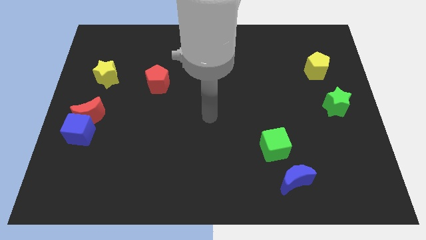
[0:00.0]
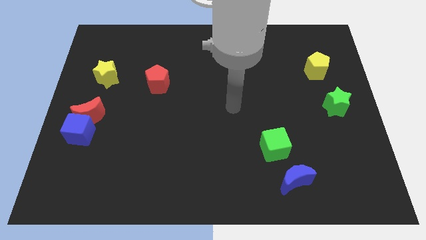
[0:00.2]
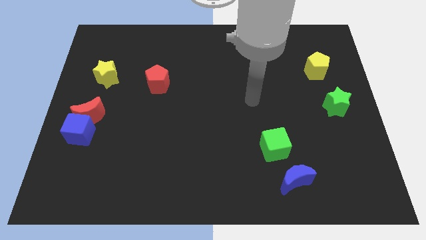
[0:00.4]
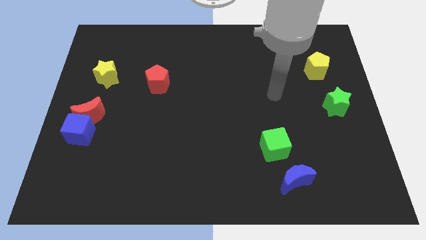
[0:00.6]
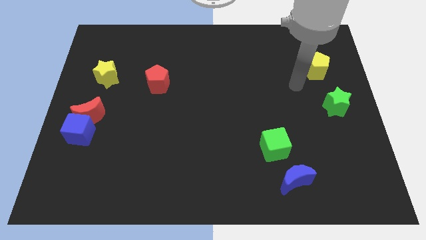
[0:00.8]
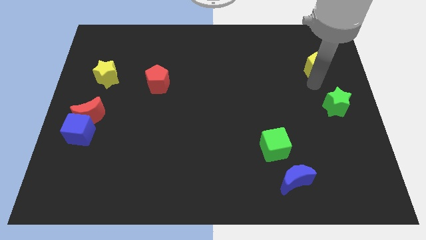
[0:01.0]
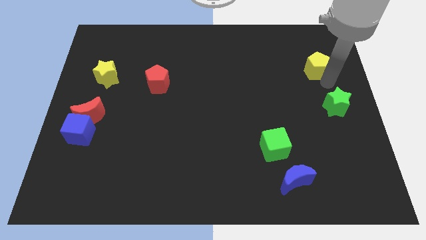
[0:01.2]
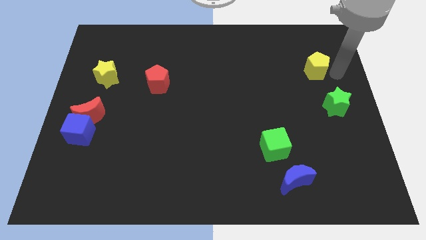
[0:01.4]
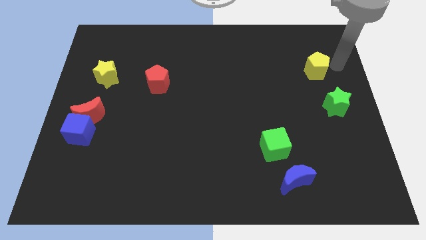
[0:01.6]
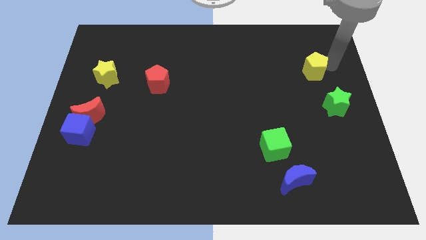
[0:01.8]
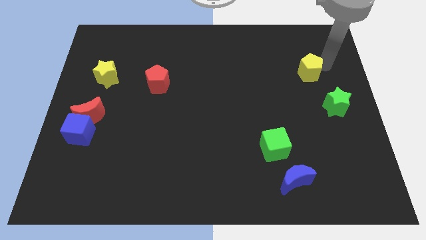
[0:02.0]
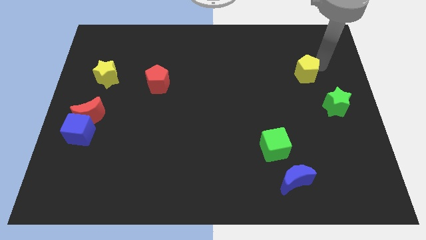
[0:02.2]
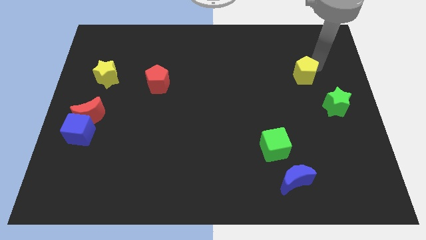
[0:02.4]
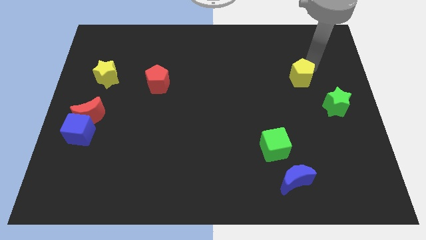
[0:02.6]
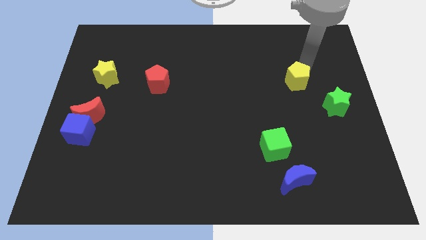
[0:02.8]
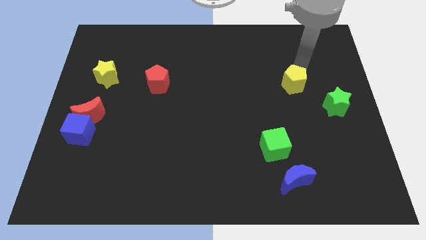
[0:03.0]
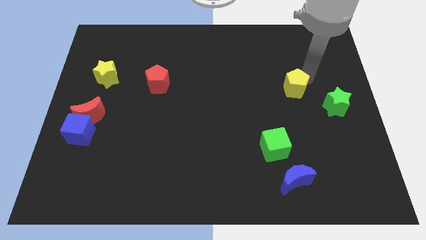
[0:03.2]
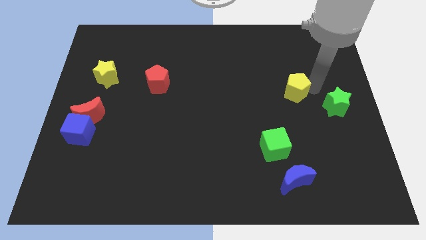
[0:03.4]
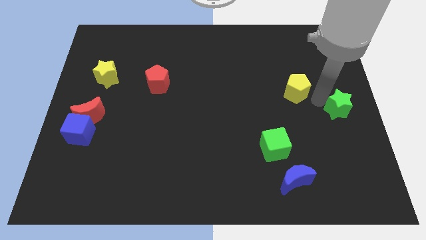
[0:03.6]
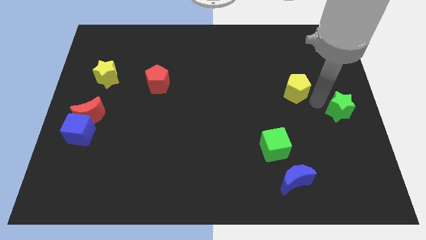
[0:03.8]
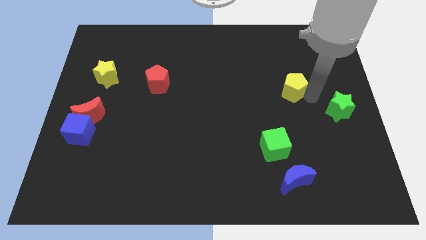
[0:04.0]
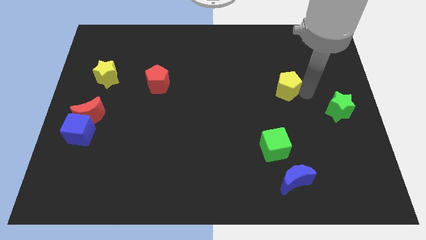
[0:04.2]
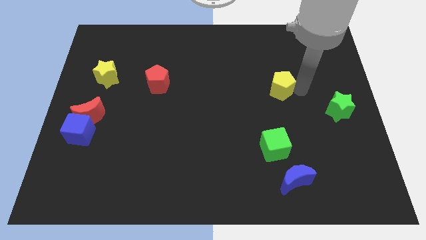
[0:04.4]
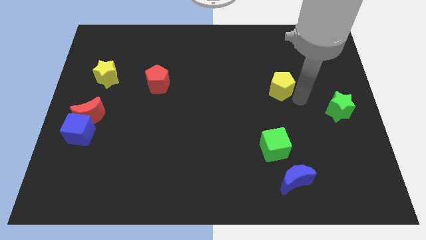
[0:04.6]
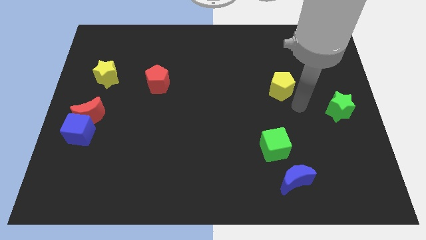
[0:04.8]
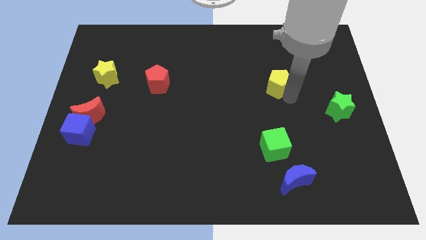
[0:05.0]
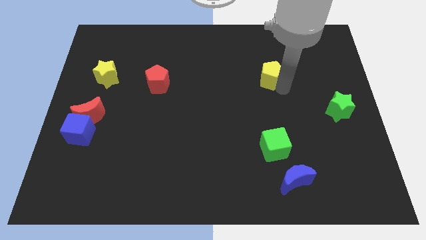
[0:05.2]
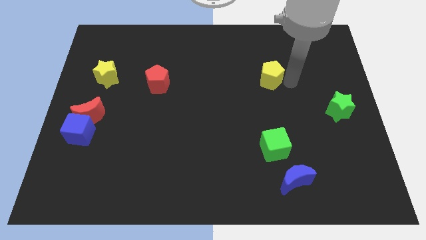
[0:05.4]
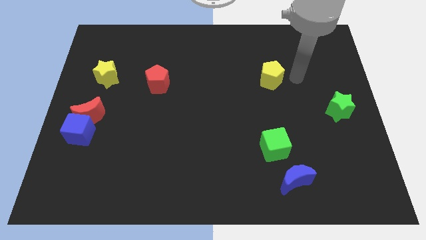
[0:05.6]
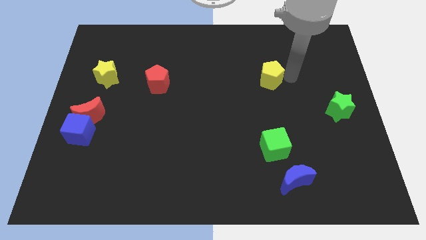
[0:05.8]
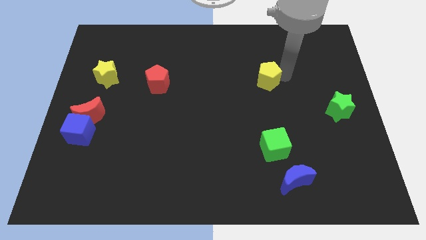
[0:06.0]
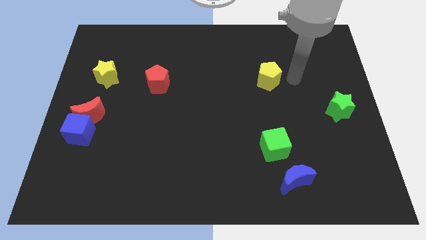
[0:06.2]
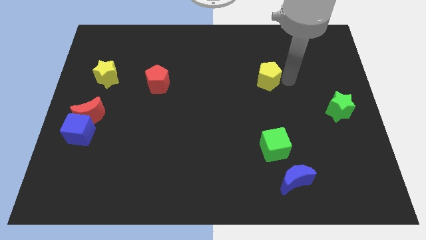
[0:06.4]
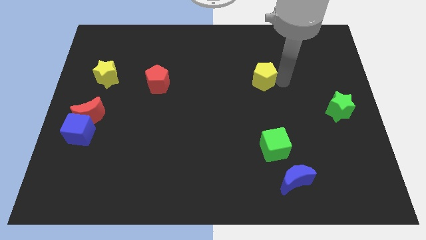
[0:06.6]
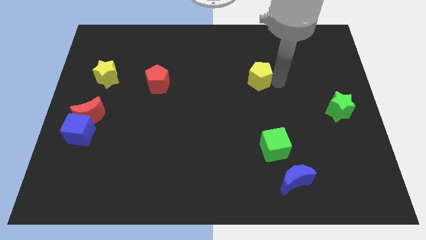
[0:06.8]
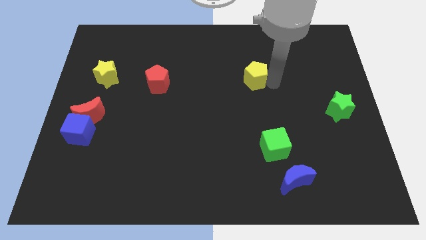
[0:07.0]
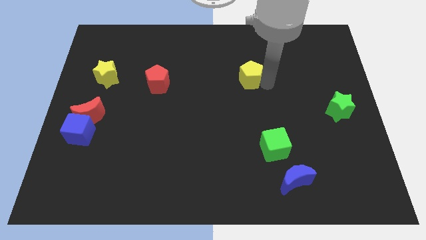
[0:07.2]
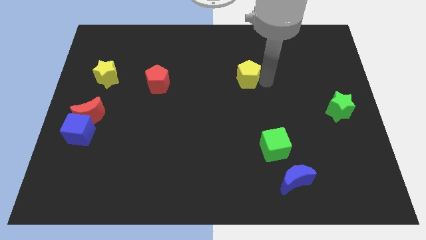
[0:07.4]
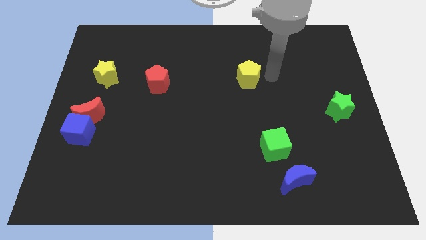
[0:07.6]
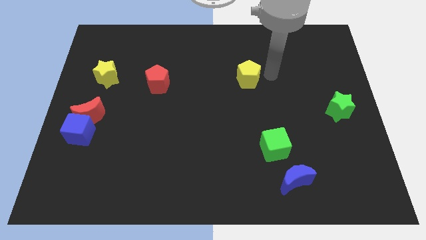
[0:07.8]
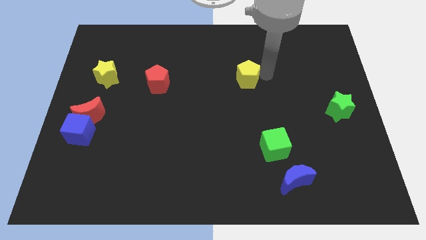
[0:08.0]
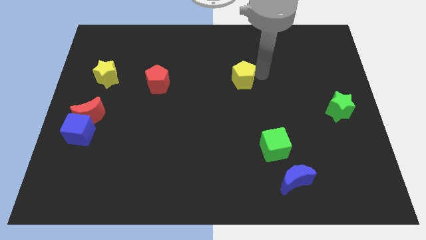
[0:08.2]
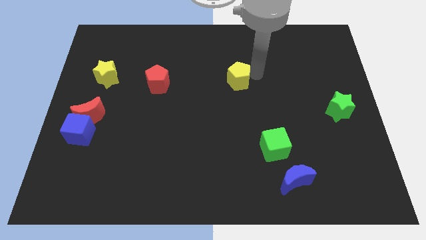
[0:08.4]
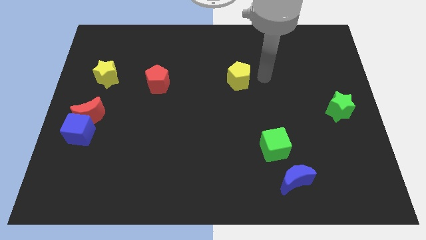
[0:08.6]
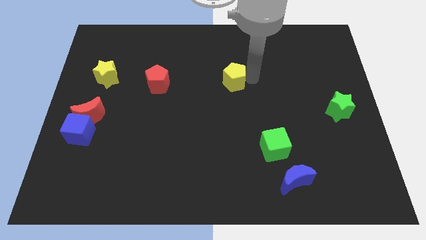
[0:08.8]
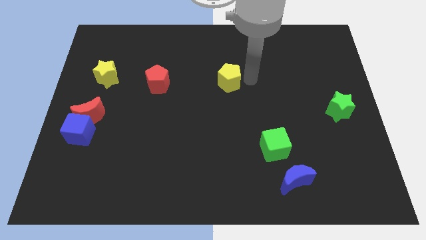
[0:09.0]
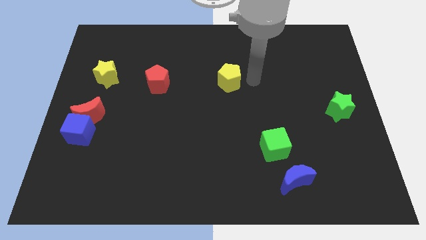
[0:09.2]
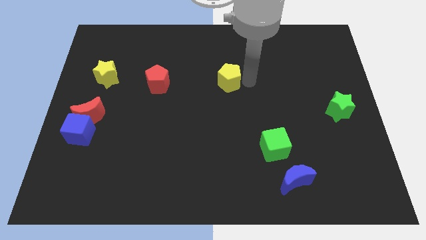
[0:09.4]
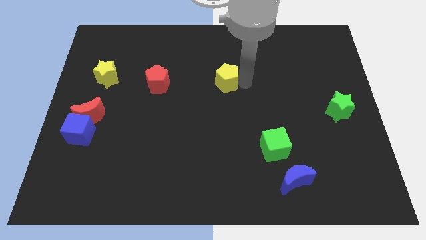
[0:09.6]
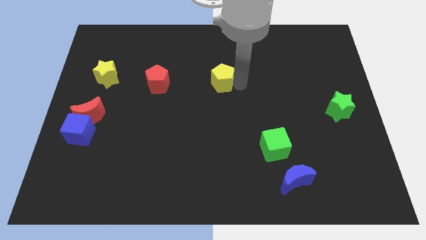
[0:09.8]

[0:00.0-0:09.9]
push the yellow pentagon to the right side of the red pentagon

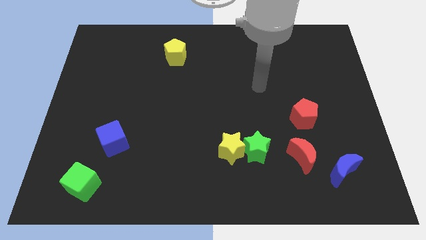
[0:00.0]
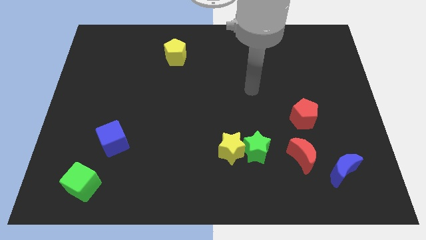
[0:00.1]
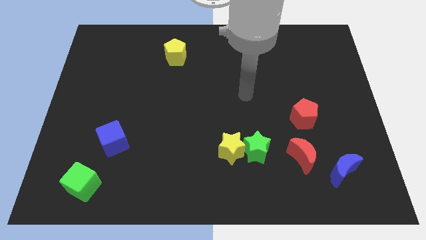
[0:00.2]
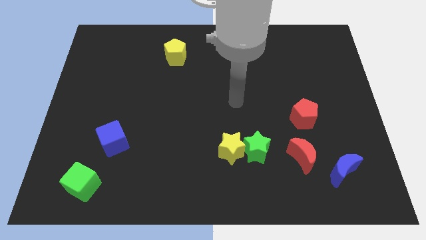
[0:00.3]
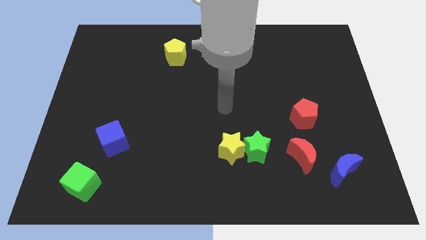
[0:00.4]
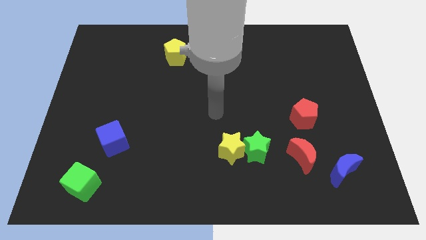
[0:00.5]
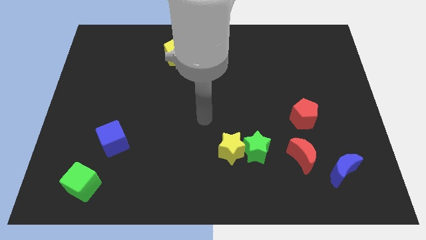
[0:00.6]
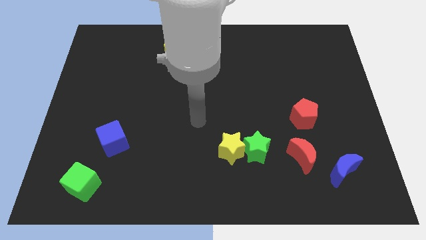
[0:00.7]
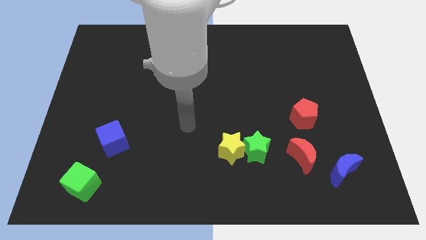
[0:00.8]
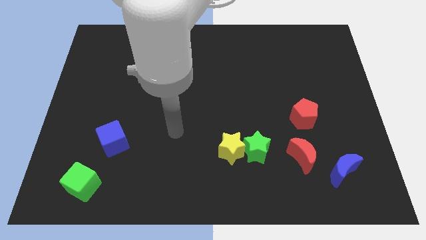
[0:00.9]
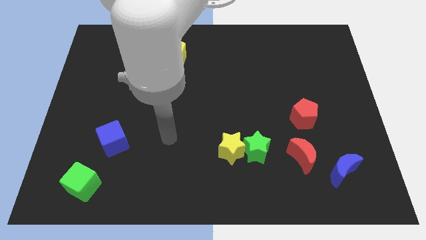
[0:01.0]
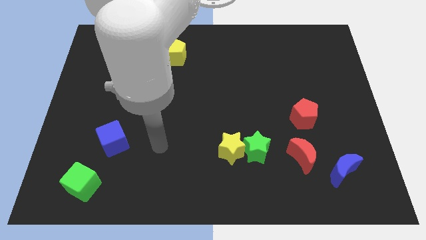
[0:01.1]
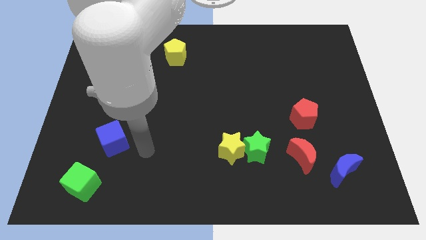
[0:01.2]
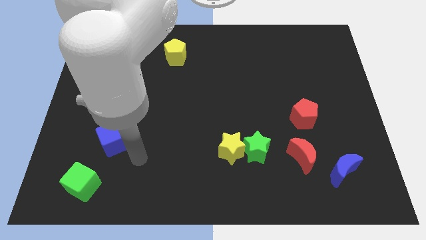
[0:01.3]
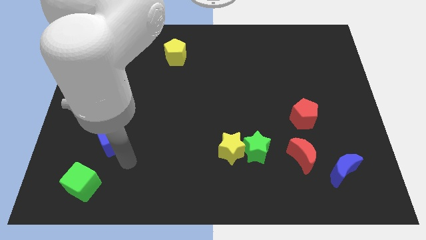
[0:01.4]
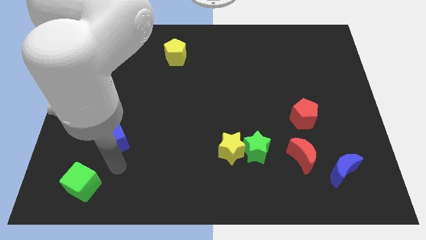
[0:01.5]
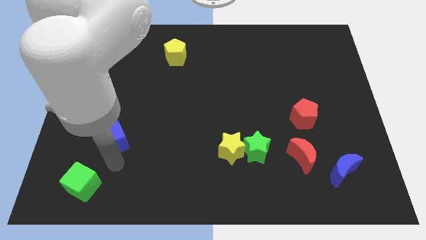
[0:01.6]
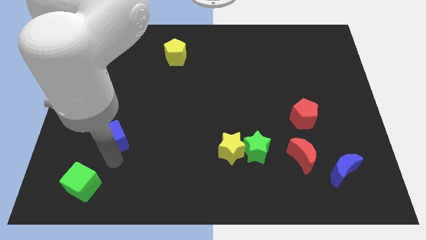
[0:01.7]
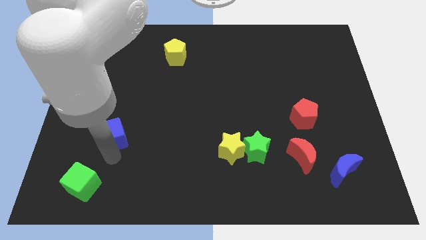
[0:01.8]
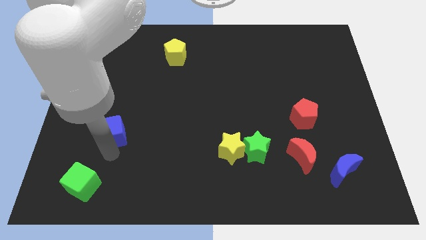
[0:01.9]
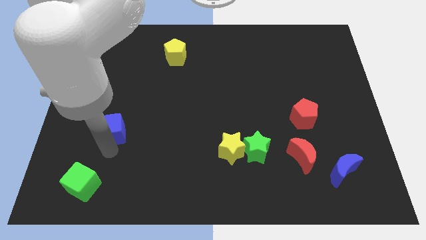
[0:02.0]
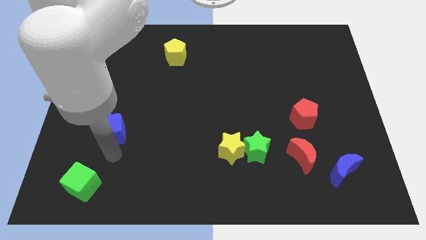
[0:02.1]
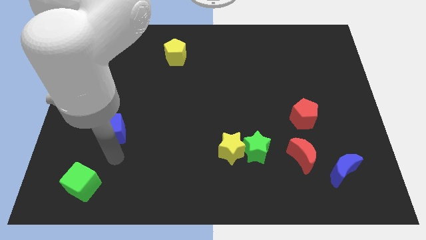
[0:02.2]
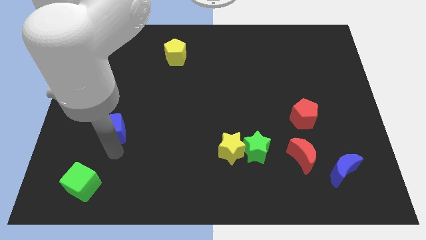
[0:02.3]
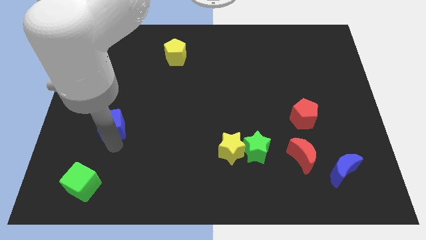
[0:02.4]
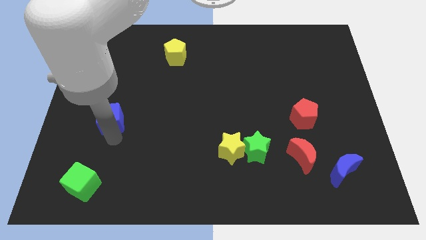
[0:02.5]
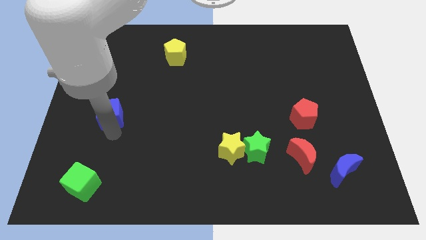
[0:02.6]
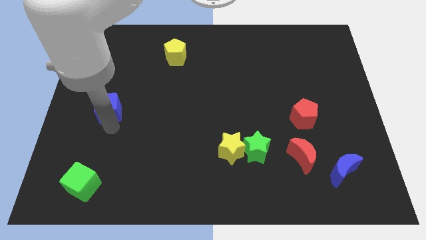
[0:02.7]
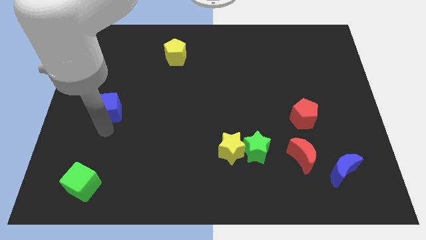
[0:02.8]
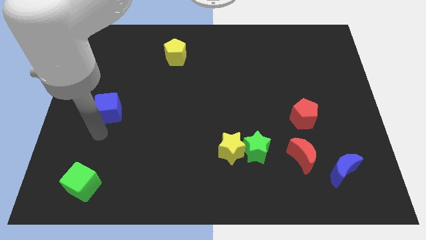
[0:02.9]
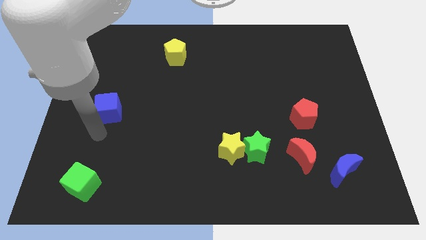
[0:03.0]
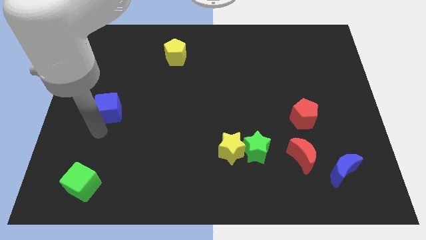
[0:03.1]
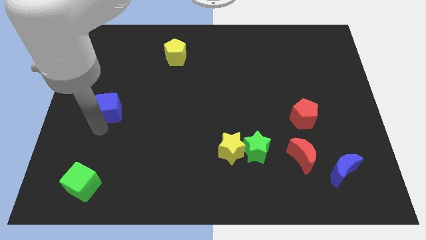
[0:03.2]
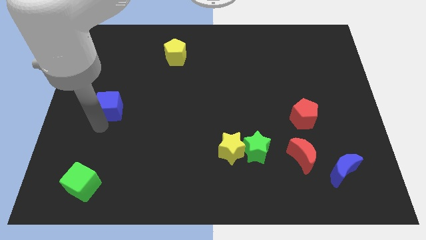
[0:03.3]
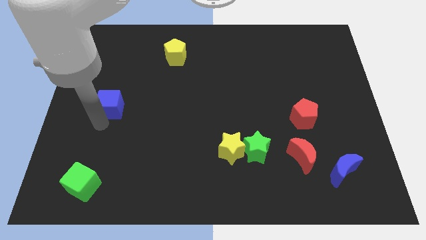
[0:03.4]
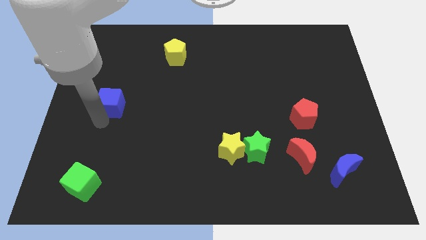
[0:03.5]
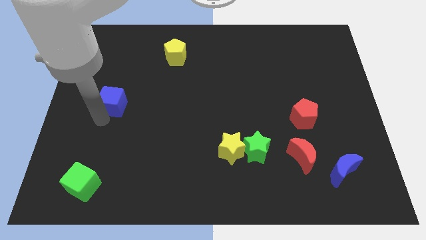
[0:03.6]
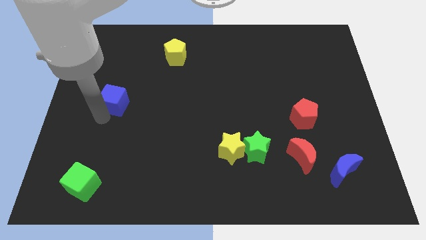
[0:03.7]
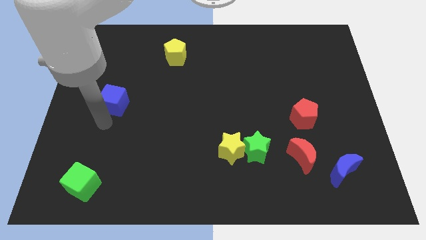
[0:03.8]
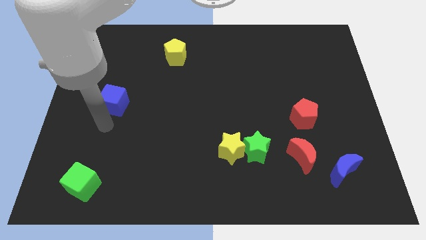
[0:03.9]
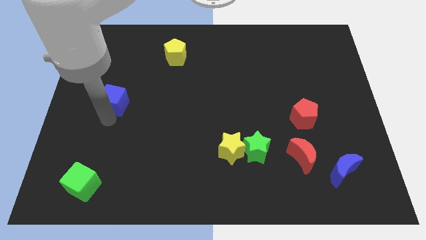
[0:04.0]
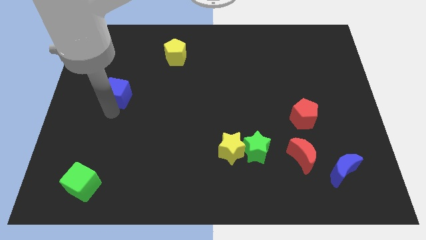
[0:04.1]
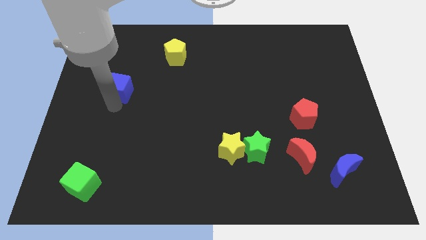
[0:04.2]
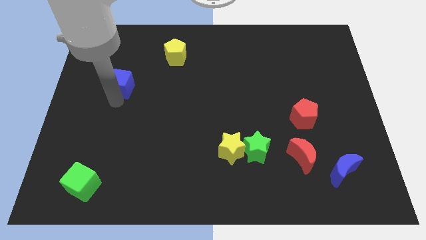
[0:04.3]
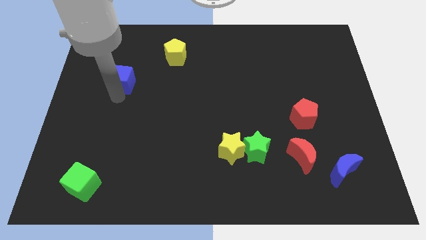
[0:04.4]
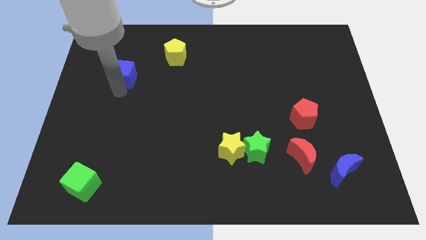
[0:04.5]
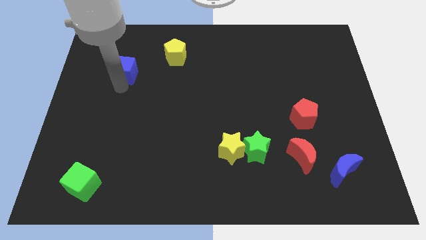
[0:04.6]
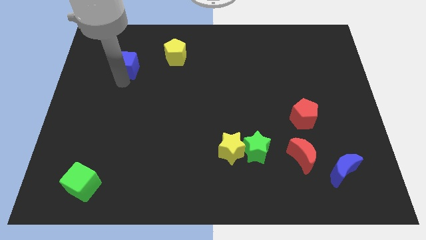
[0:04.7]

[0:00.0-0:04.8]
put the blue cube to the left side of the yellow pentagon
